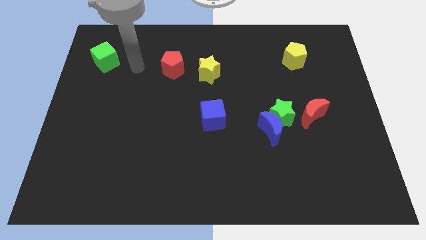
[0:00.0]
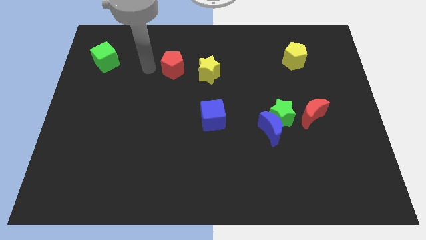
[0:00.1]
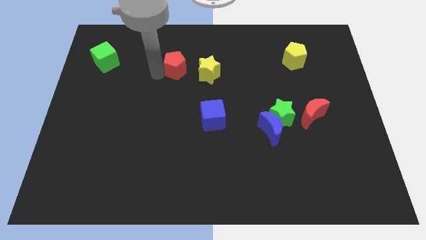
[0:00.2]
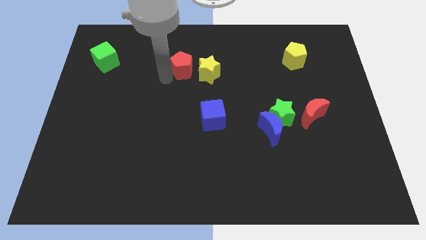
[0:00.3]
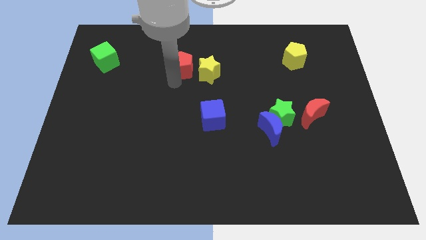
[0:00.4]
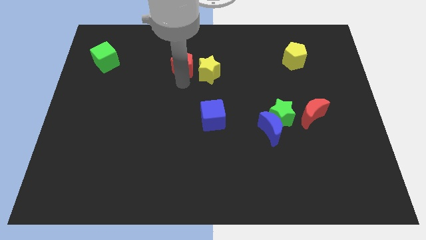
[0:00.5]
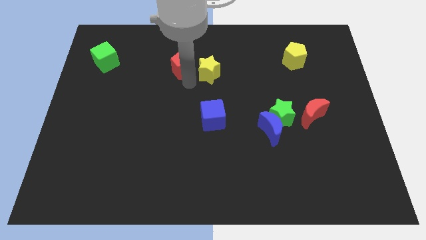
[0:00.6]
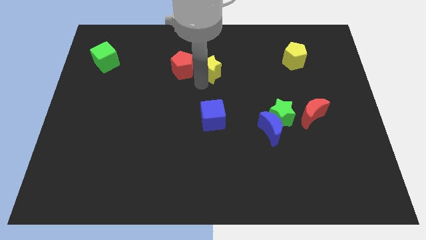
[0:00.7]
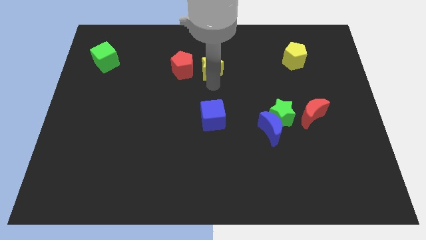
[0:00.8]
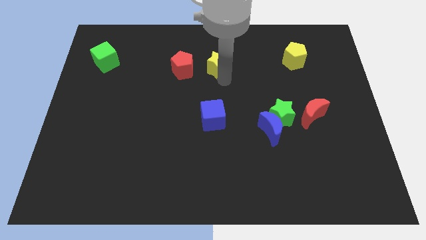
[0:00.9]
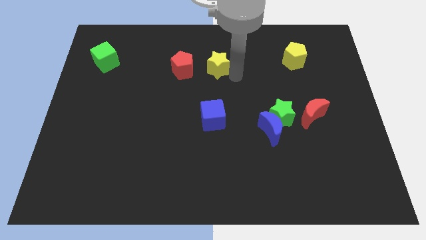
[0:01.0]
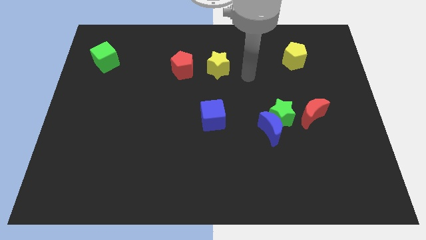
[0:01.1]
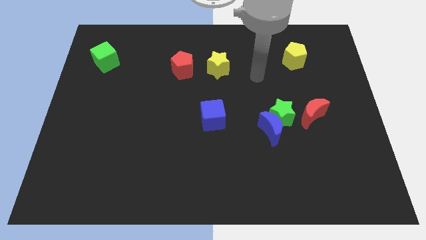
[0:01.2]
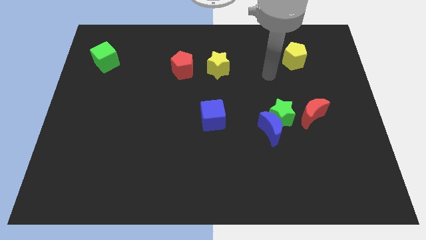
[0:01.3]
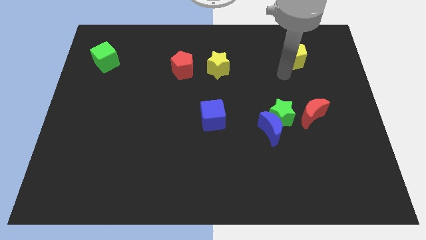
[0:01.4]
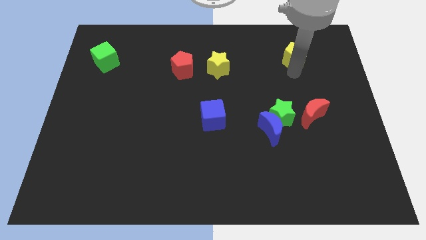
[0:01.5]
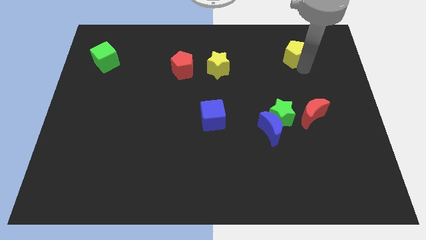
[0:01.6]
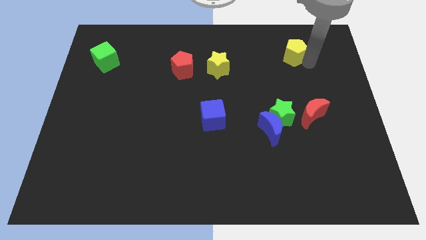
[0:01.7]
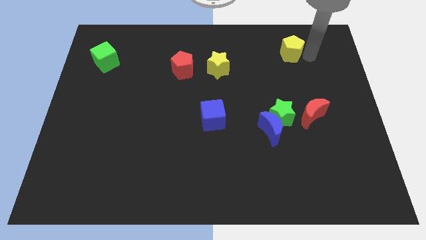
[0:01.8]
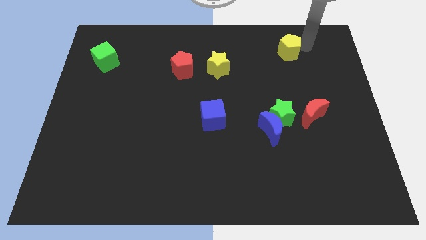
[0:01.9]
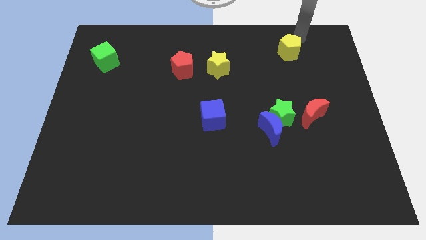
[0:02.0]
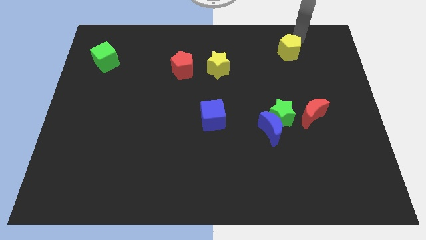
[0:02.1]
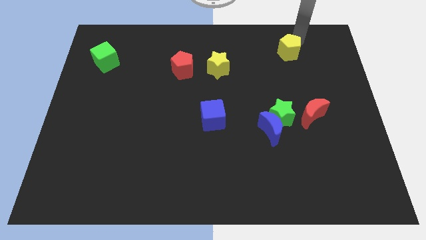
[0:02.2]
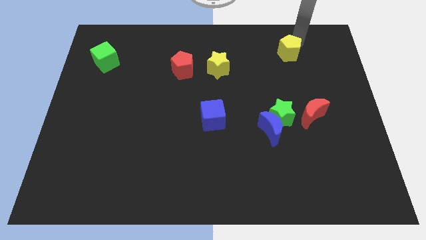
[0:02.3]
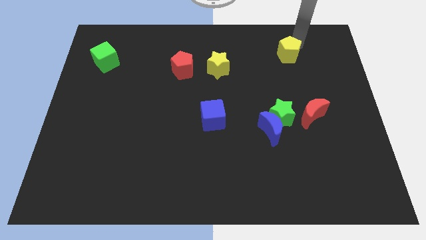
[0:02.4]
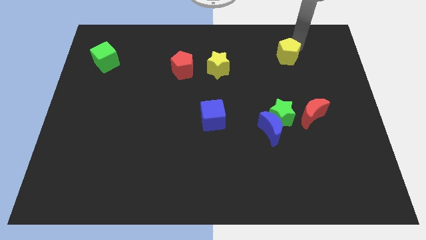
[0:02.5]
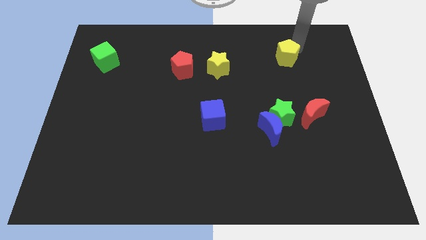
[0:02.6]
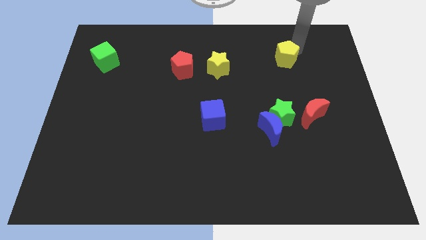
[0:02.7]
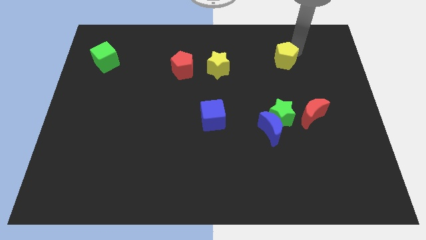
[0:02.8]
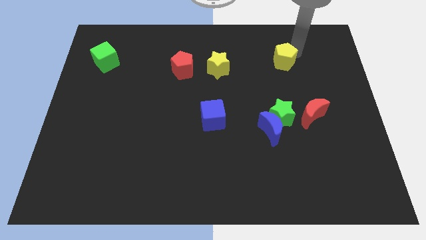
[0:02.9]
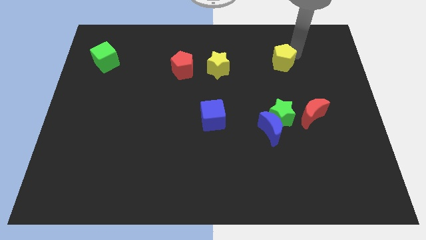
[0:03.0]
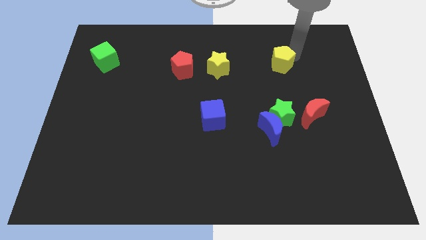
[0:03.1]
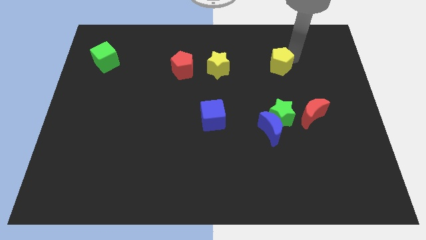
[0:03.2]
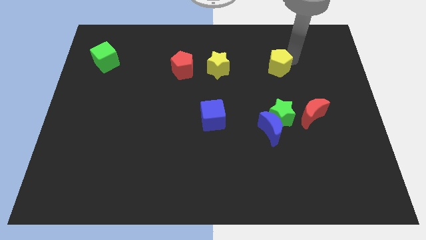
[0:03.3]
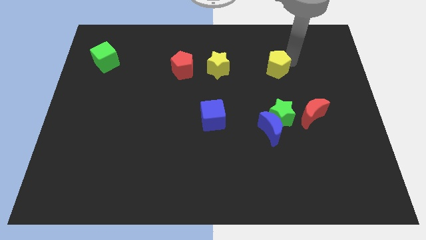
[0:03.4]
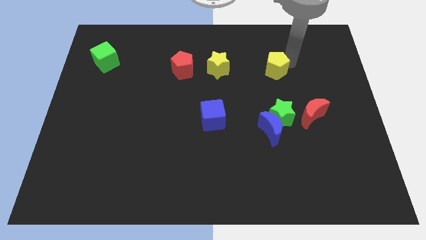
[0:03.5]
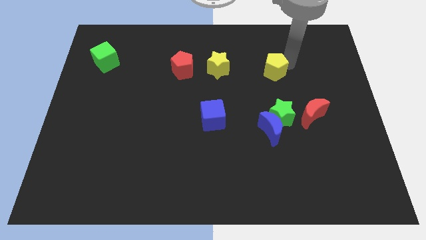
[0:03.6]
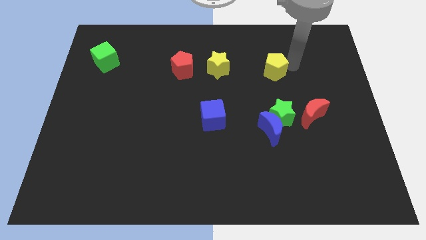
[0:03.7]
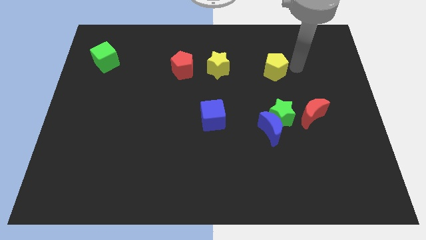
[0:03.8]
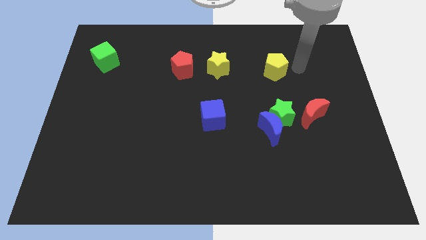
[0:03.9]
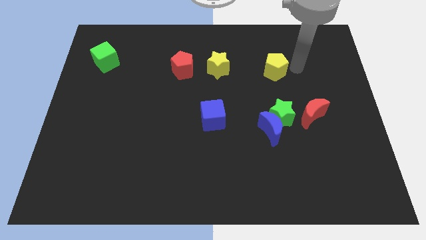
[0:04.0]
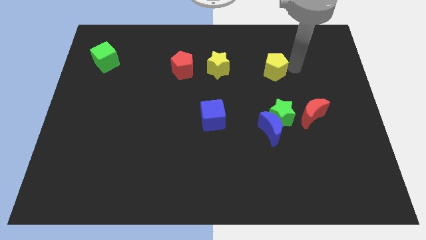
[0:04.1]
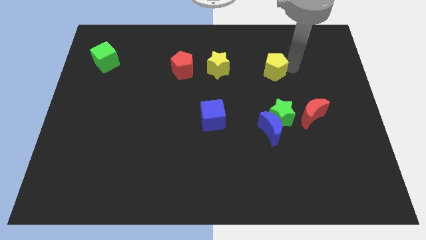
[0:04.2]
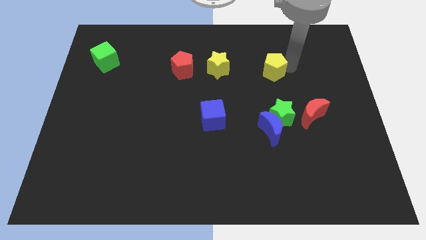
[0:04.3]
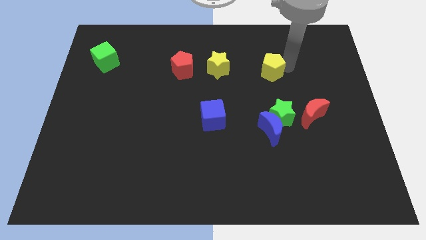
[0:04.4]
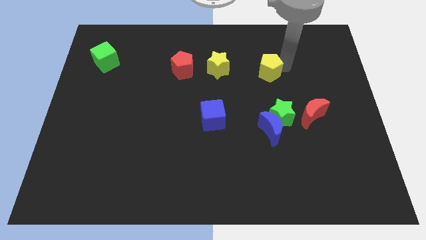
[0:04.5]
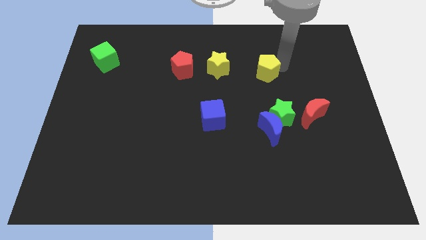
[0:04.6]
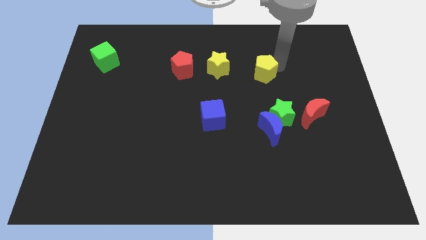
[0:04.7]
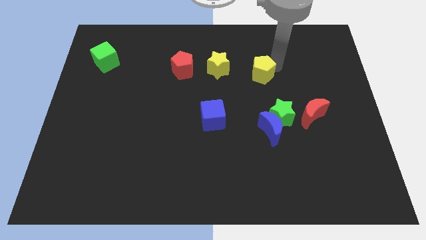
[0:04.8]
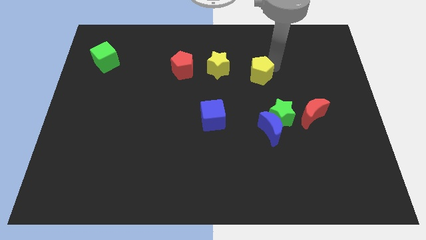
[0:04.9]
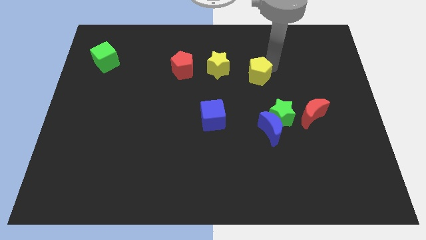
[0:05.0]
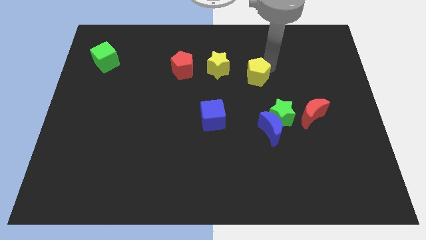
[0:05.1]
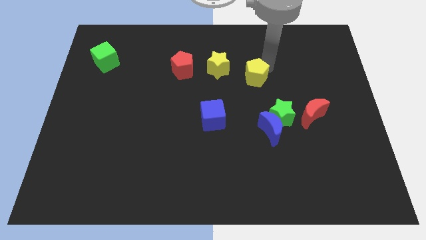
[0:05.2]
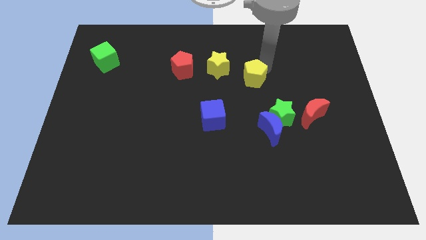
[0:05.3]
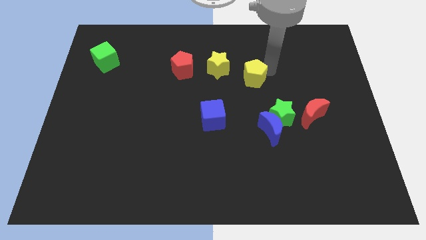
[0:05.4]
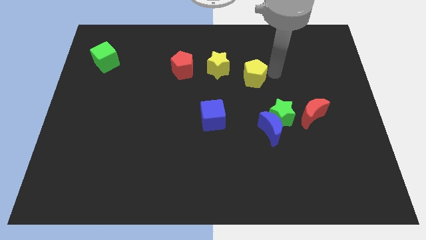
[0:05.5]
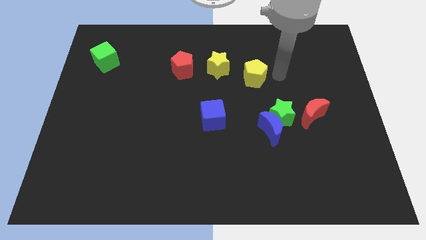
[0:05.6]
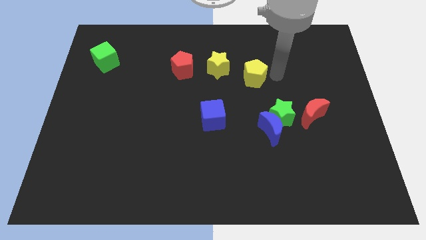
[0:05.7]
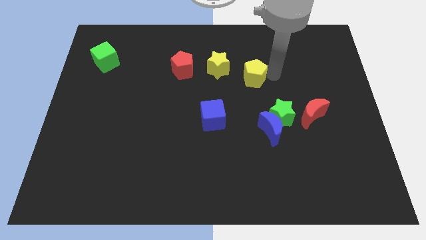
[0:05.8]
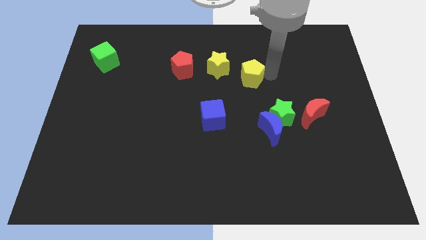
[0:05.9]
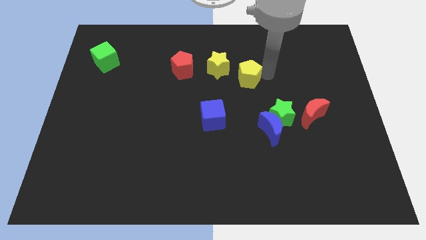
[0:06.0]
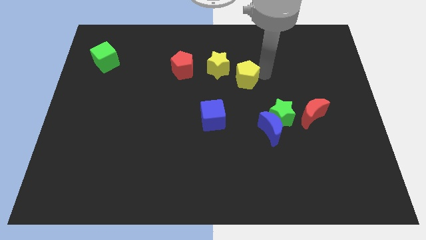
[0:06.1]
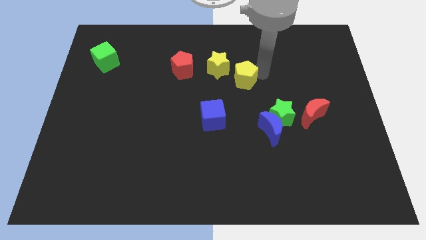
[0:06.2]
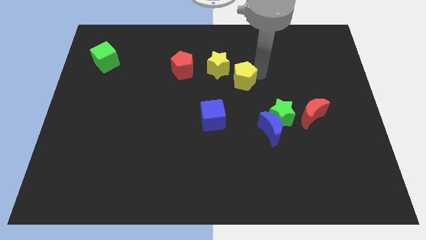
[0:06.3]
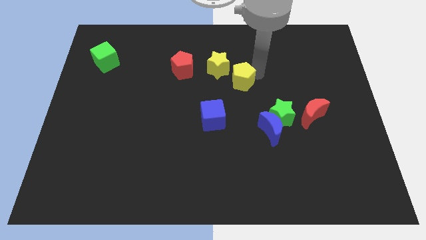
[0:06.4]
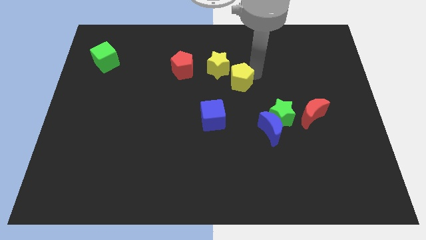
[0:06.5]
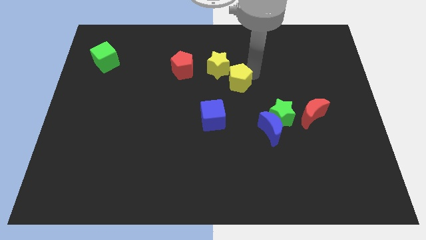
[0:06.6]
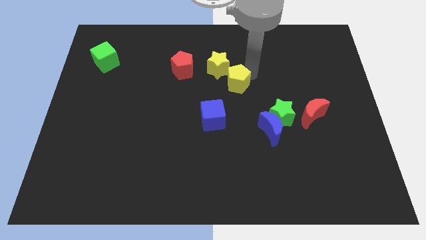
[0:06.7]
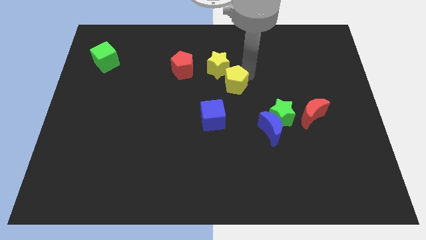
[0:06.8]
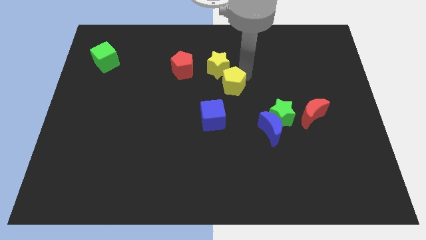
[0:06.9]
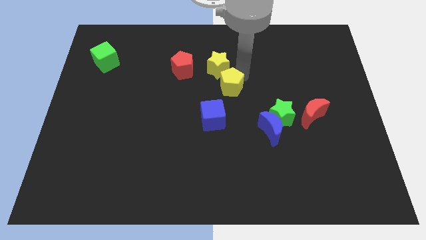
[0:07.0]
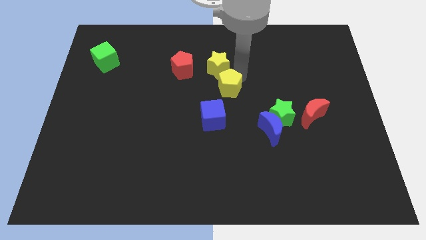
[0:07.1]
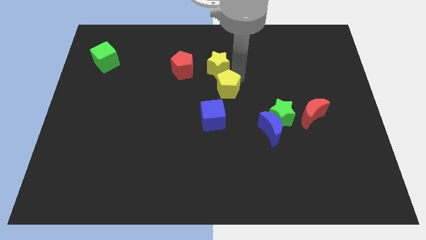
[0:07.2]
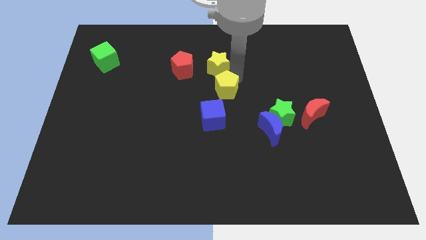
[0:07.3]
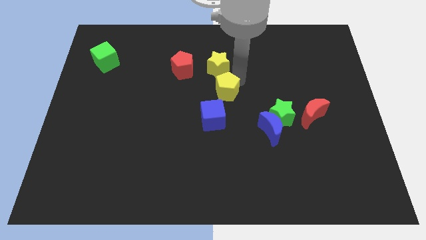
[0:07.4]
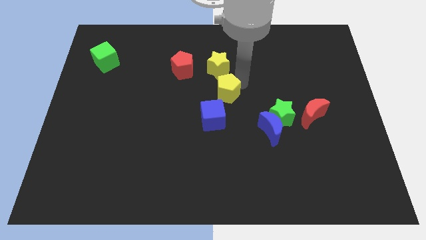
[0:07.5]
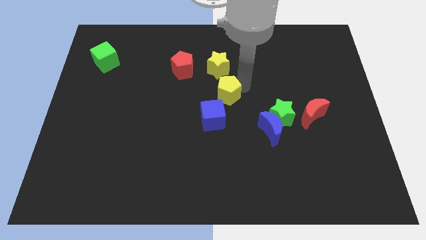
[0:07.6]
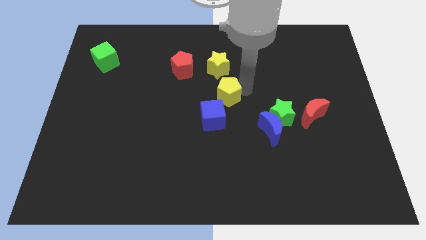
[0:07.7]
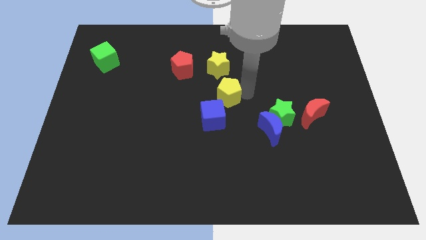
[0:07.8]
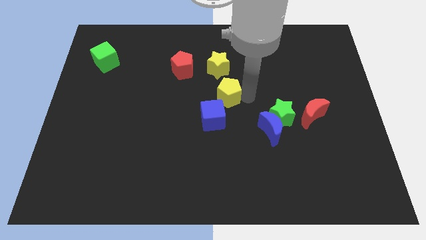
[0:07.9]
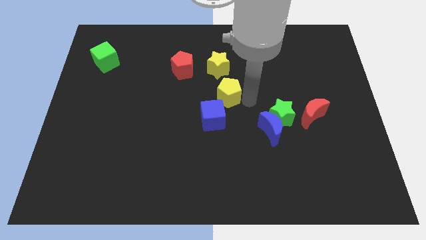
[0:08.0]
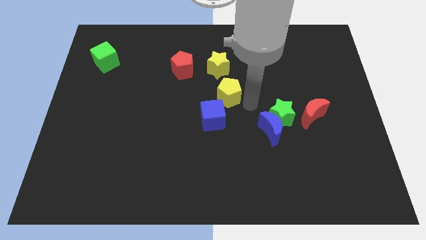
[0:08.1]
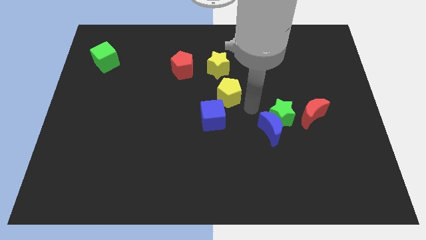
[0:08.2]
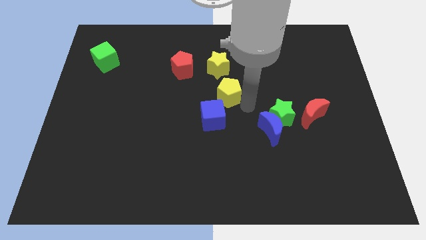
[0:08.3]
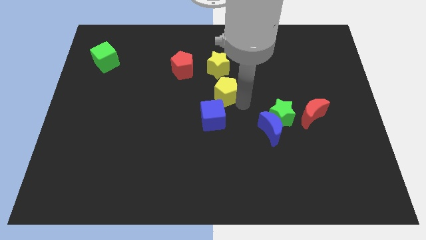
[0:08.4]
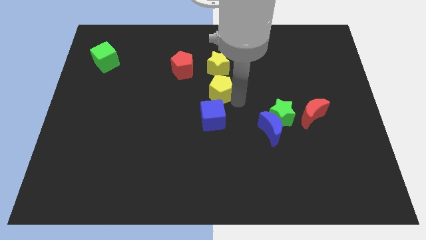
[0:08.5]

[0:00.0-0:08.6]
put the yellow pentagon to the bottom right of the red pentagon
